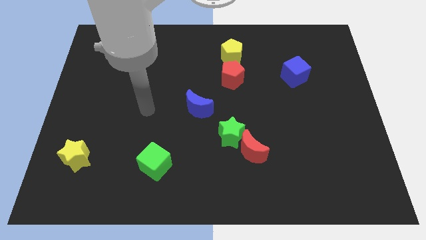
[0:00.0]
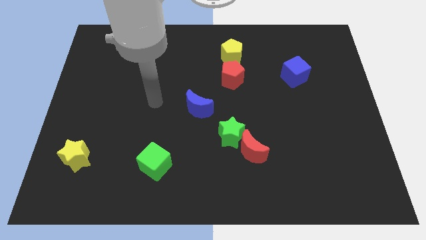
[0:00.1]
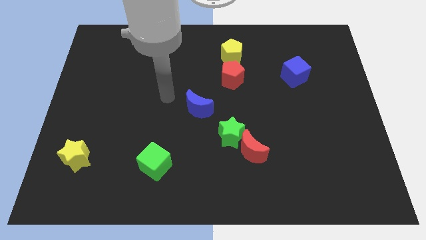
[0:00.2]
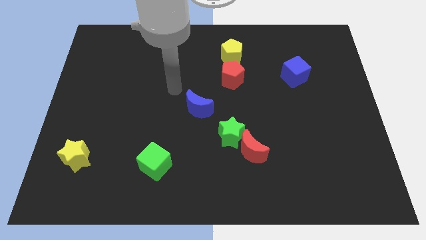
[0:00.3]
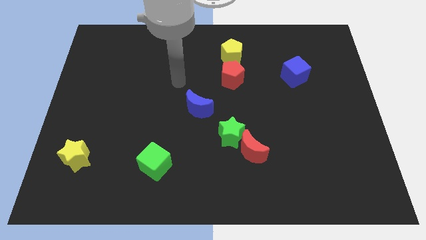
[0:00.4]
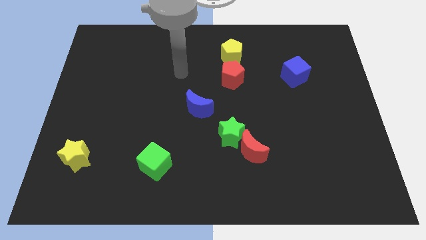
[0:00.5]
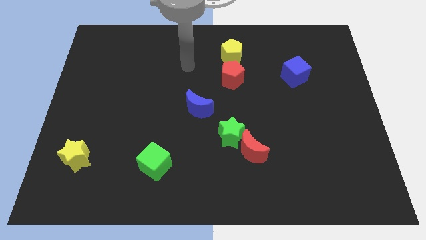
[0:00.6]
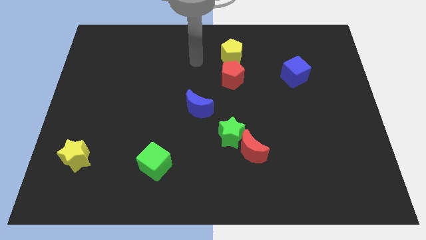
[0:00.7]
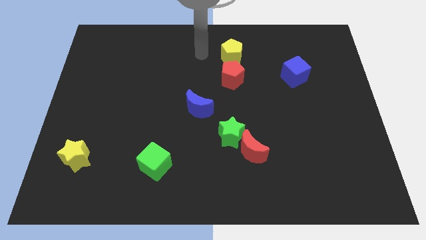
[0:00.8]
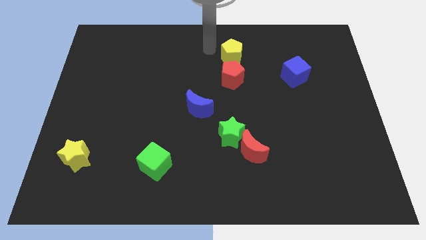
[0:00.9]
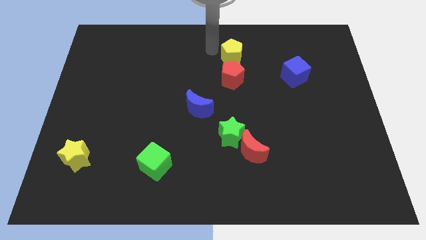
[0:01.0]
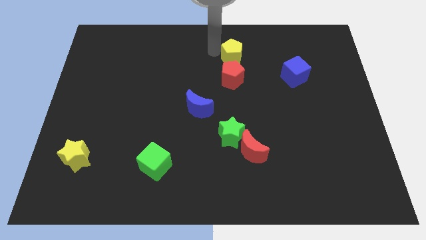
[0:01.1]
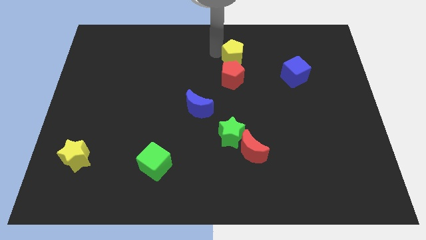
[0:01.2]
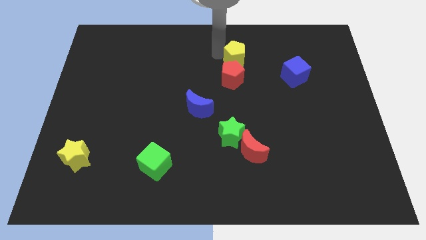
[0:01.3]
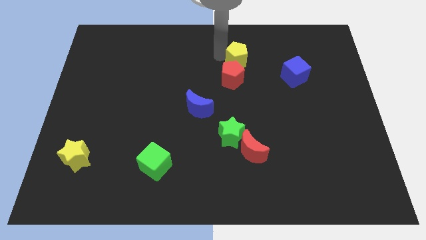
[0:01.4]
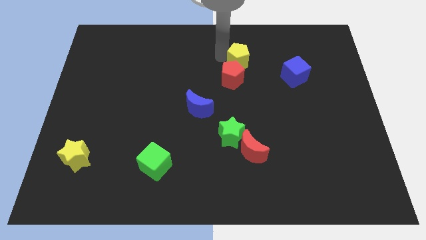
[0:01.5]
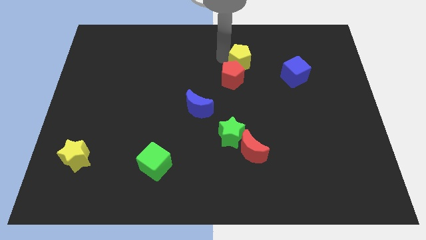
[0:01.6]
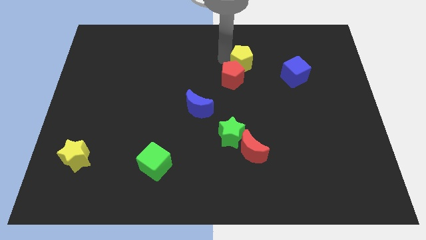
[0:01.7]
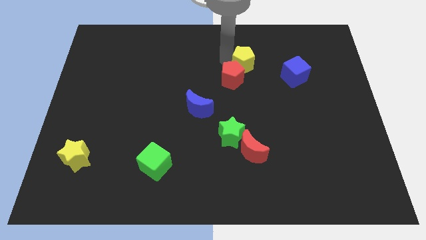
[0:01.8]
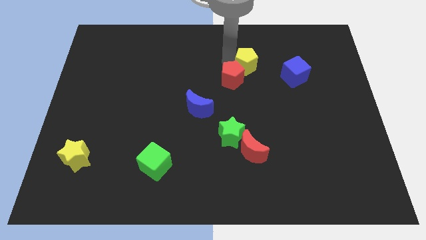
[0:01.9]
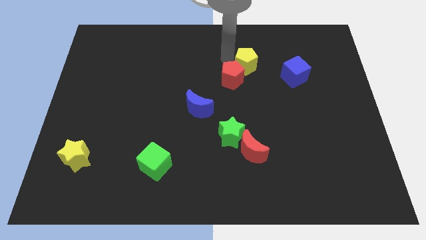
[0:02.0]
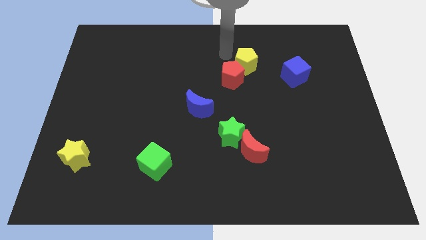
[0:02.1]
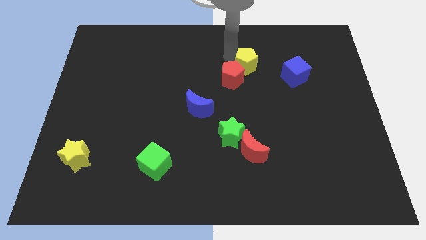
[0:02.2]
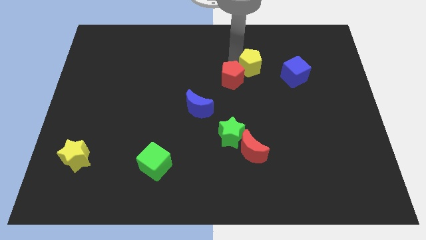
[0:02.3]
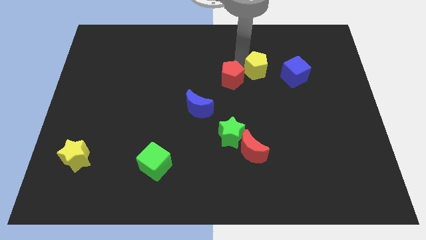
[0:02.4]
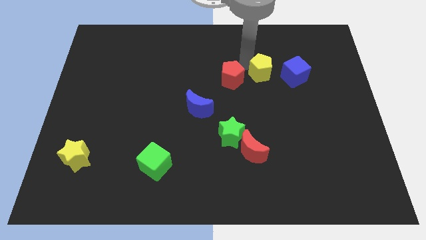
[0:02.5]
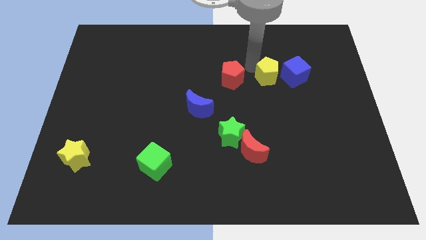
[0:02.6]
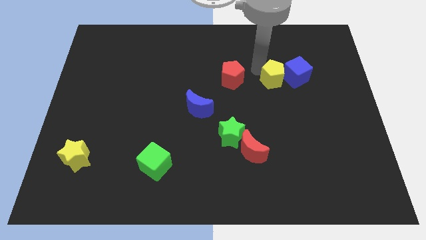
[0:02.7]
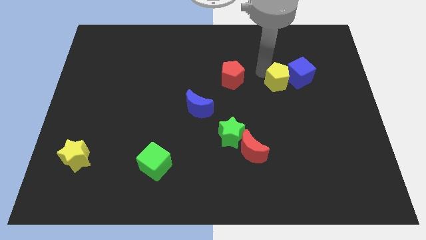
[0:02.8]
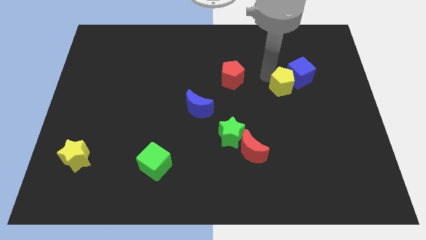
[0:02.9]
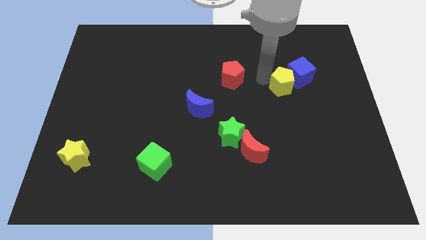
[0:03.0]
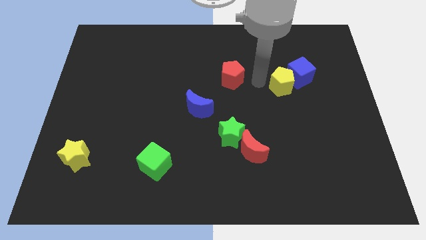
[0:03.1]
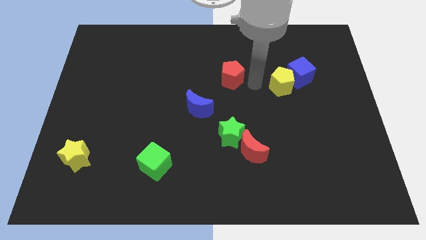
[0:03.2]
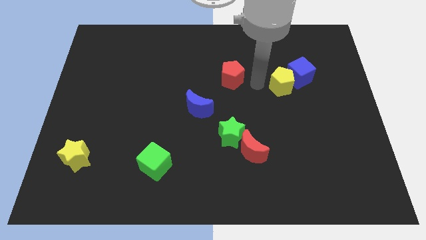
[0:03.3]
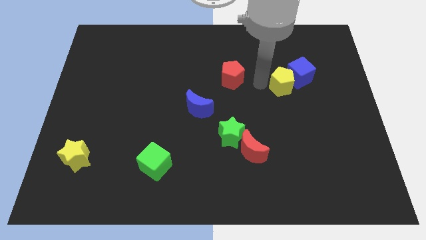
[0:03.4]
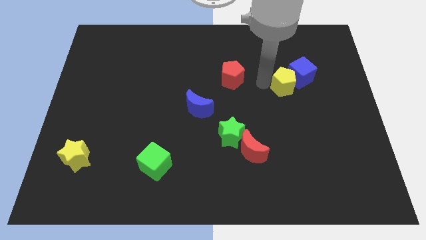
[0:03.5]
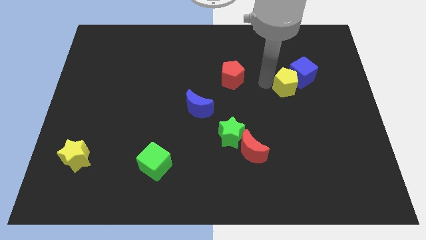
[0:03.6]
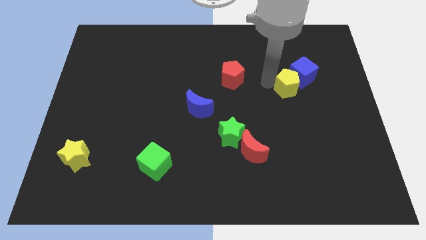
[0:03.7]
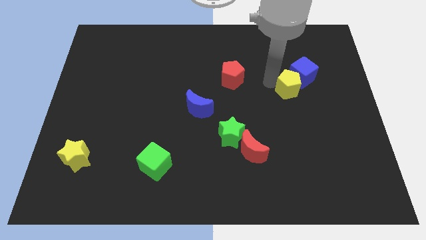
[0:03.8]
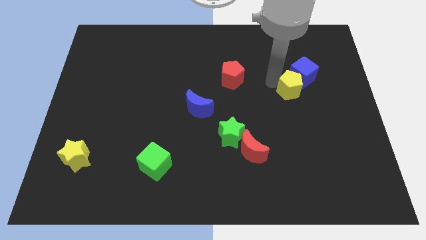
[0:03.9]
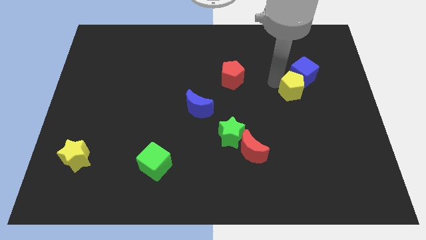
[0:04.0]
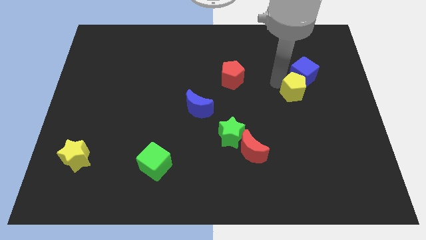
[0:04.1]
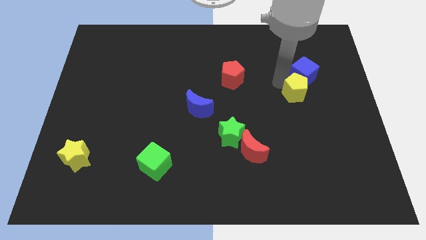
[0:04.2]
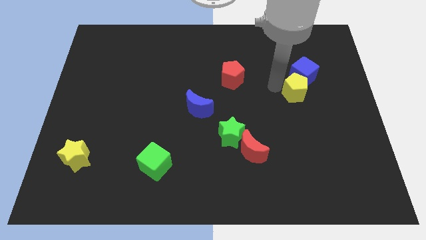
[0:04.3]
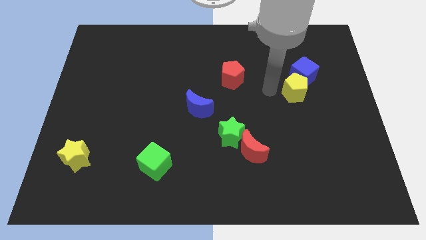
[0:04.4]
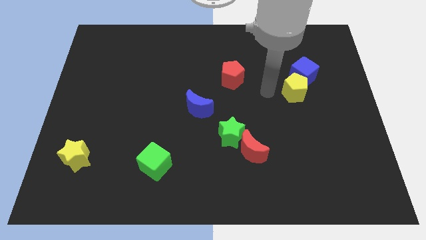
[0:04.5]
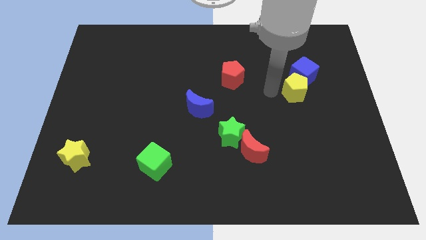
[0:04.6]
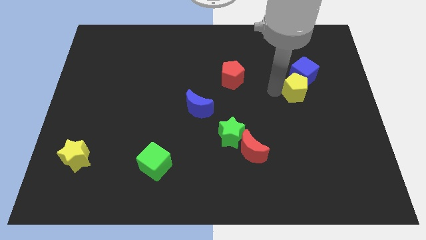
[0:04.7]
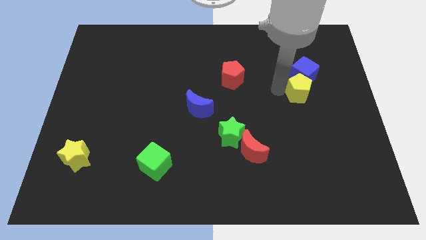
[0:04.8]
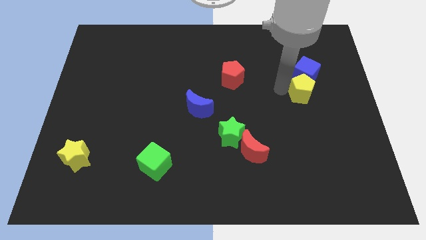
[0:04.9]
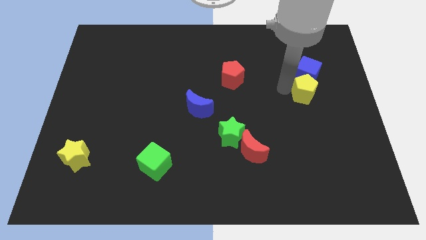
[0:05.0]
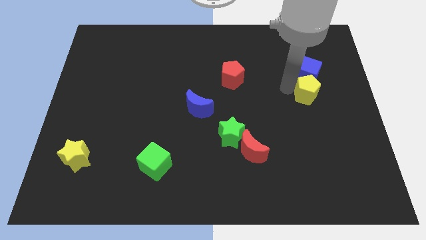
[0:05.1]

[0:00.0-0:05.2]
put the yellow pentagon diagonally down and to the right of the blue cube

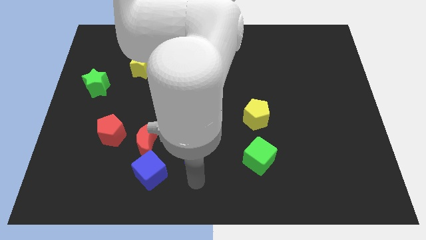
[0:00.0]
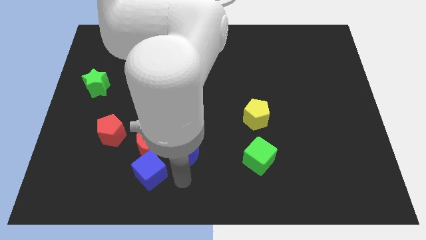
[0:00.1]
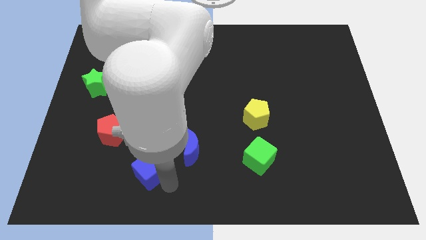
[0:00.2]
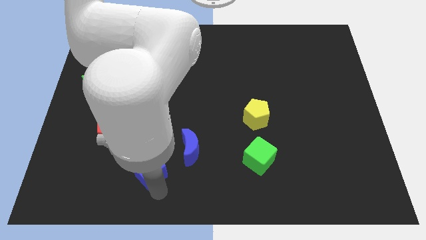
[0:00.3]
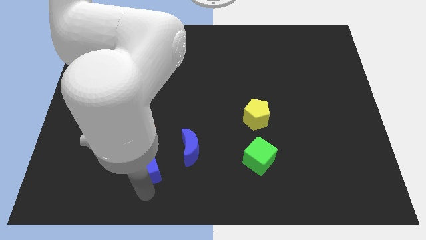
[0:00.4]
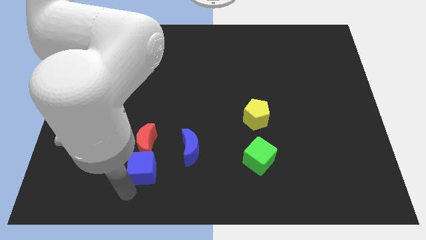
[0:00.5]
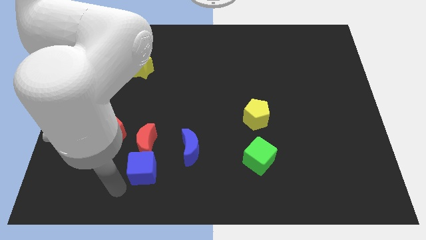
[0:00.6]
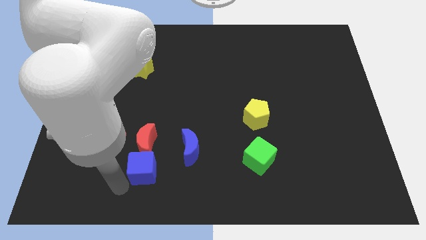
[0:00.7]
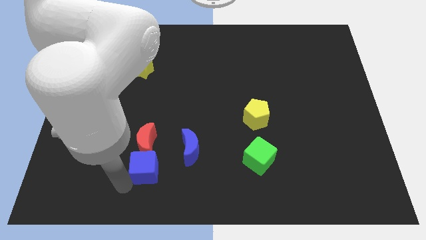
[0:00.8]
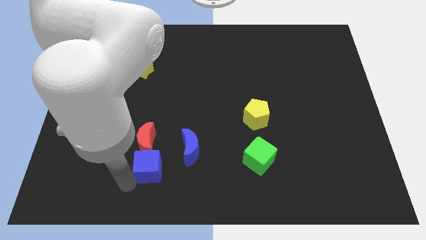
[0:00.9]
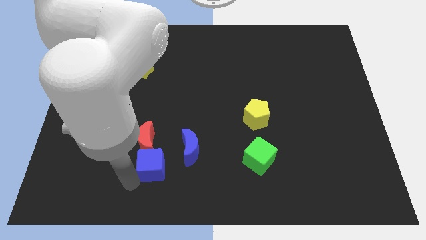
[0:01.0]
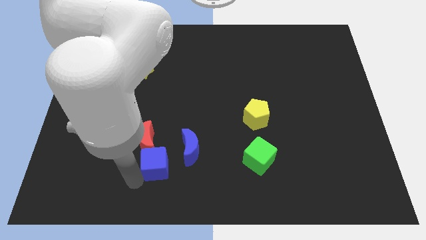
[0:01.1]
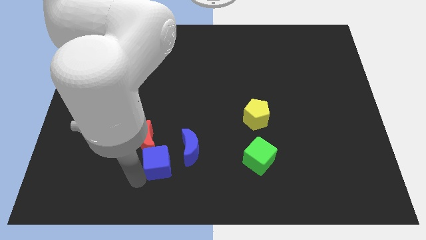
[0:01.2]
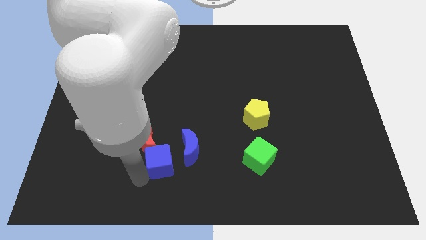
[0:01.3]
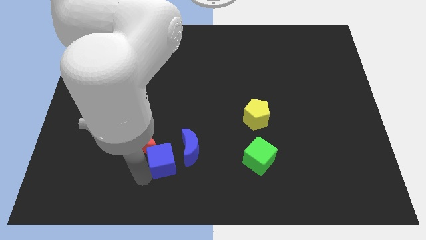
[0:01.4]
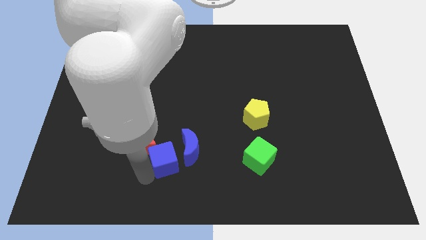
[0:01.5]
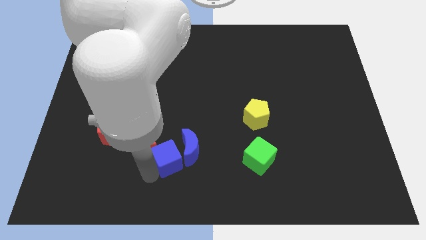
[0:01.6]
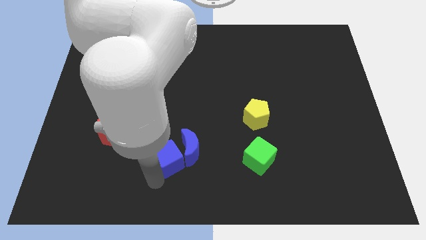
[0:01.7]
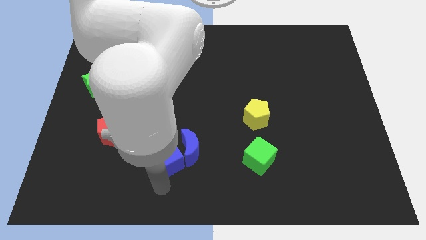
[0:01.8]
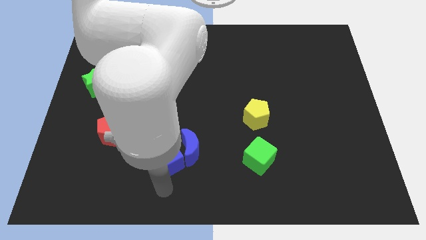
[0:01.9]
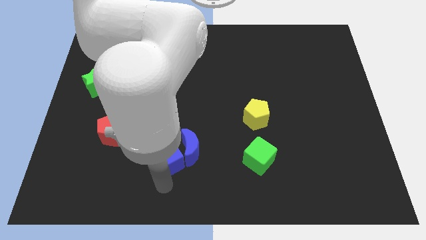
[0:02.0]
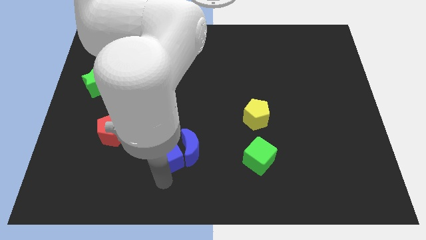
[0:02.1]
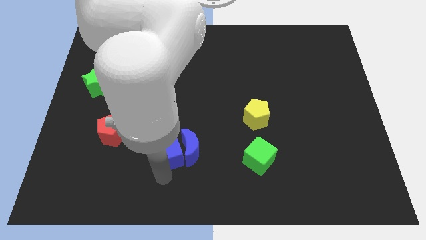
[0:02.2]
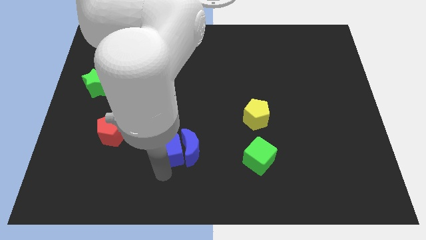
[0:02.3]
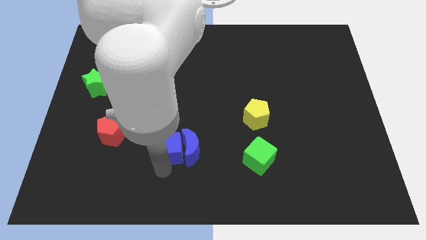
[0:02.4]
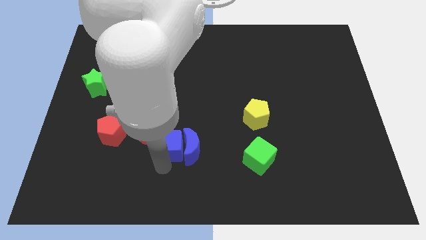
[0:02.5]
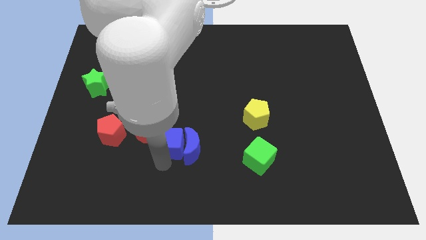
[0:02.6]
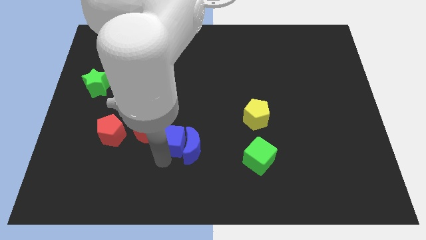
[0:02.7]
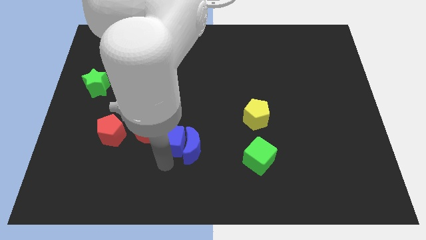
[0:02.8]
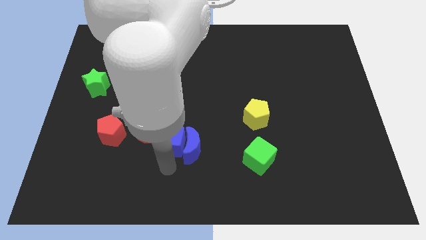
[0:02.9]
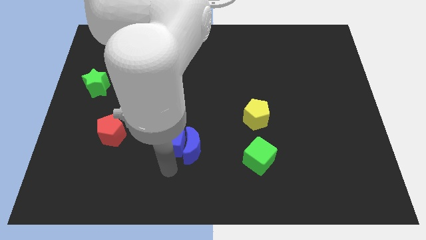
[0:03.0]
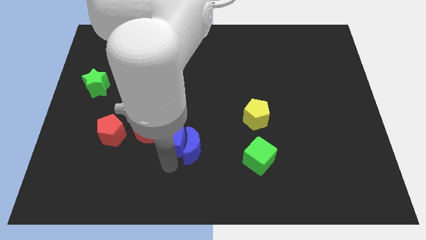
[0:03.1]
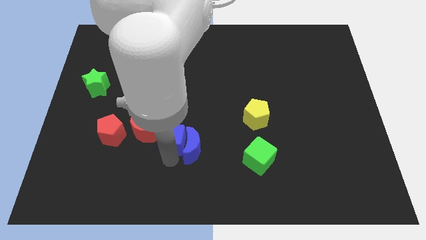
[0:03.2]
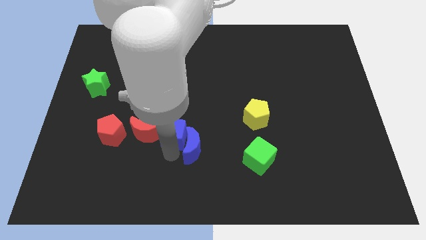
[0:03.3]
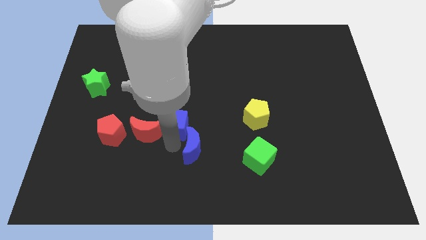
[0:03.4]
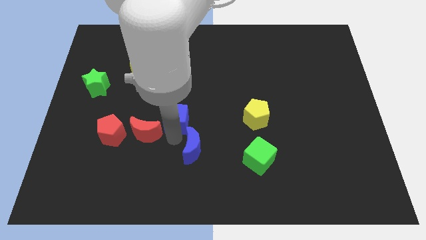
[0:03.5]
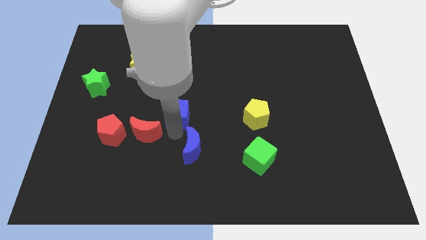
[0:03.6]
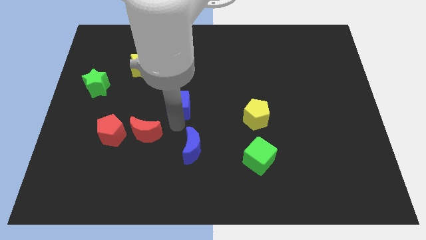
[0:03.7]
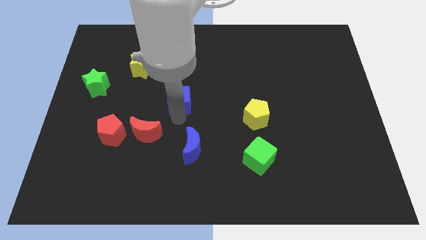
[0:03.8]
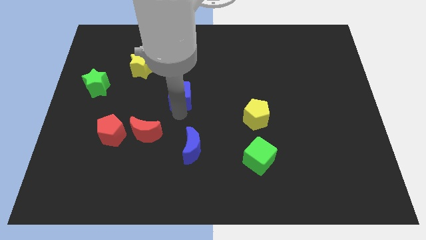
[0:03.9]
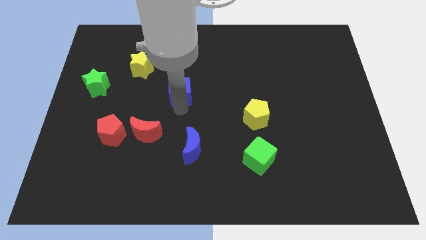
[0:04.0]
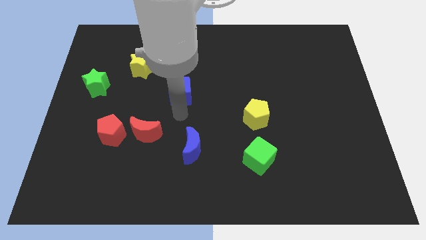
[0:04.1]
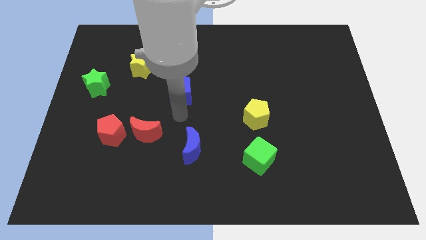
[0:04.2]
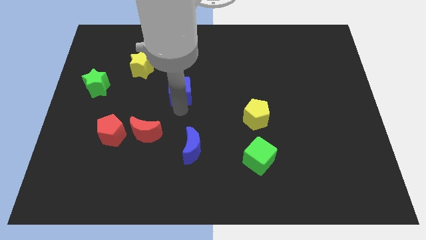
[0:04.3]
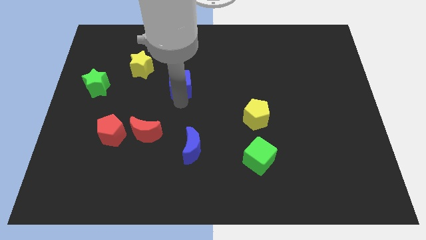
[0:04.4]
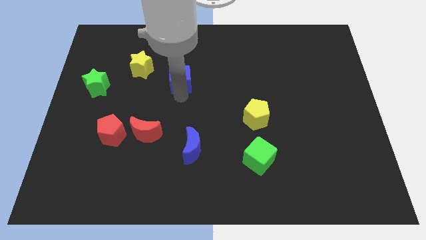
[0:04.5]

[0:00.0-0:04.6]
push the blue cube to the right of the yellow star
